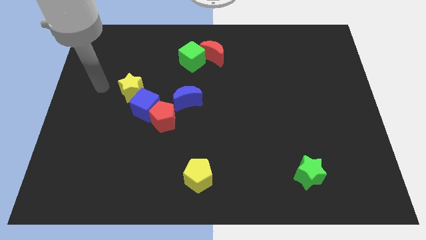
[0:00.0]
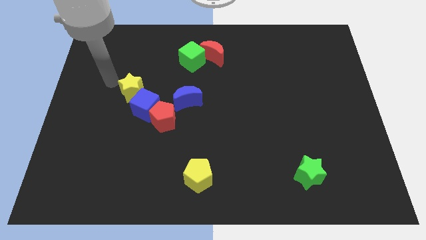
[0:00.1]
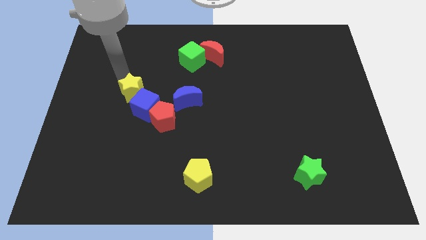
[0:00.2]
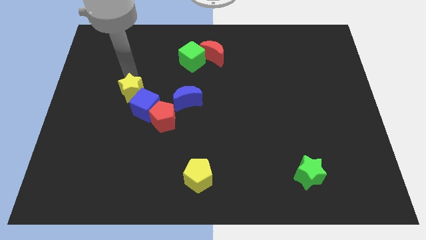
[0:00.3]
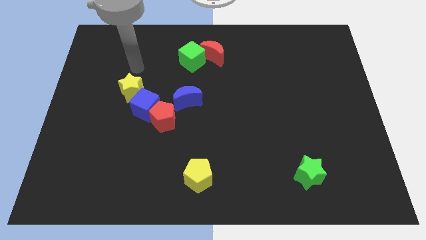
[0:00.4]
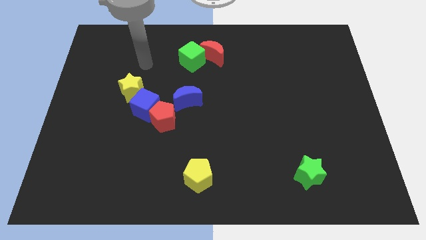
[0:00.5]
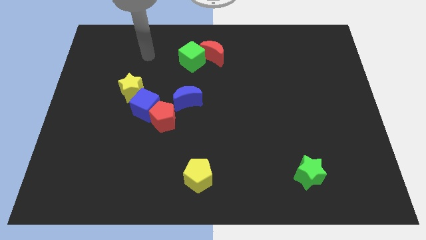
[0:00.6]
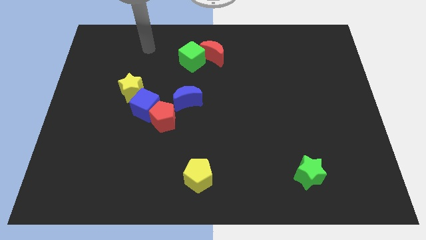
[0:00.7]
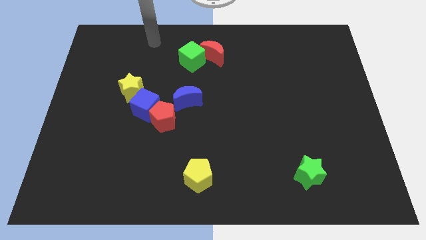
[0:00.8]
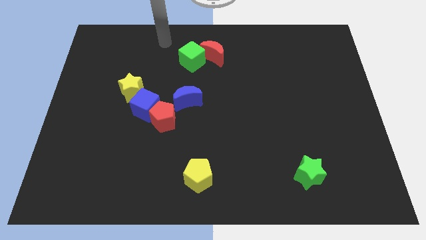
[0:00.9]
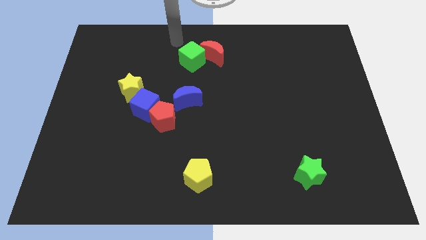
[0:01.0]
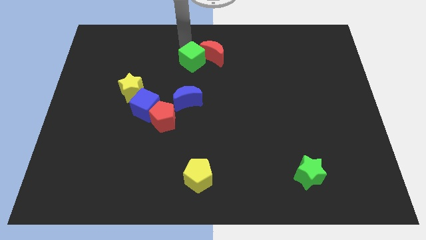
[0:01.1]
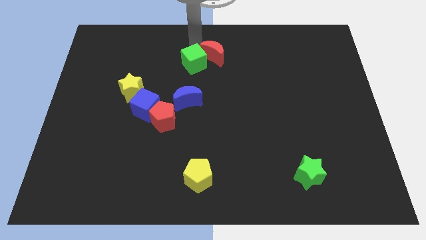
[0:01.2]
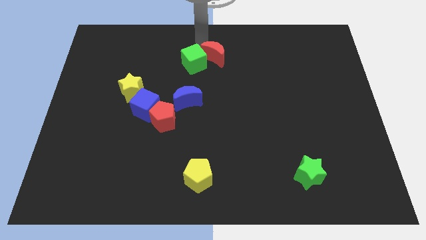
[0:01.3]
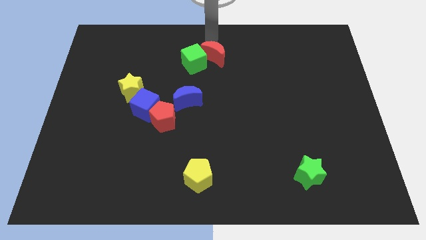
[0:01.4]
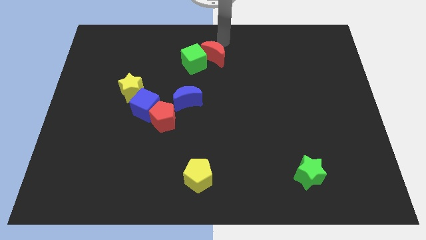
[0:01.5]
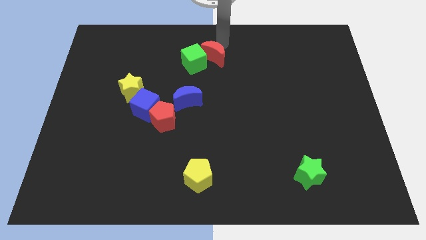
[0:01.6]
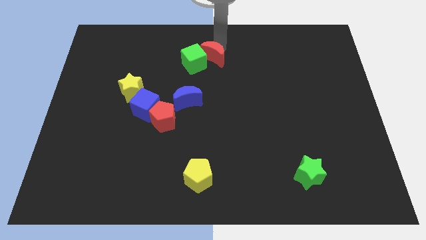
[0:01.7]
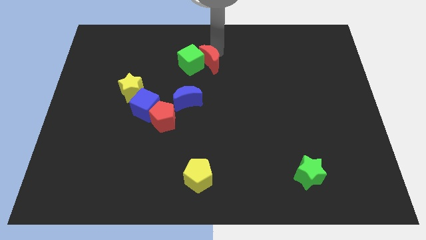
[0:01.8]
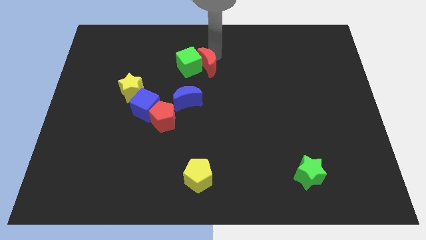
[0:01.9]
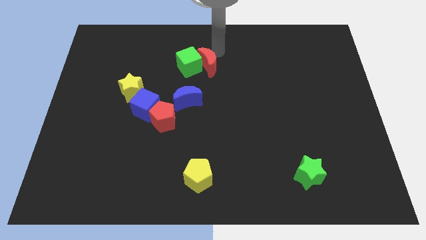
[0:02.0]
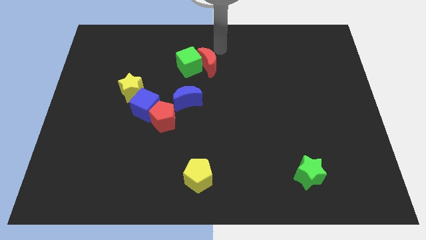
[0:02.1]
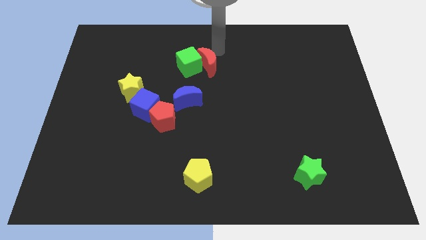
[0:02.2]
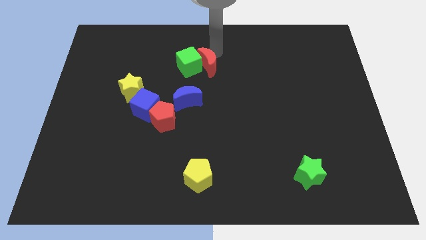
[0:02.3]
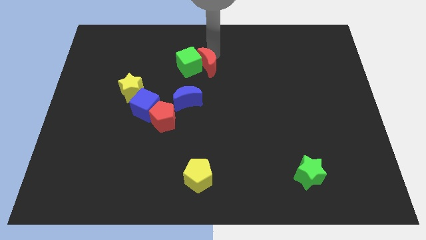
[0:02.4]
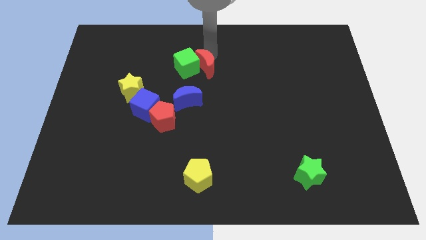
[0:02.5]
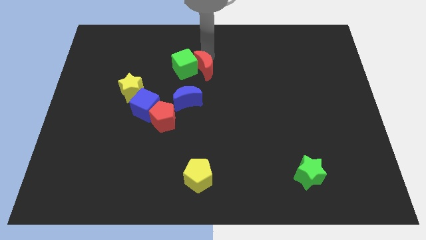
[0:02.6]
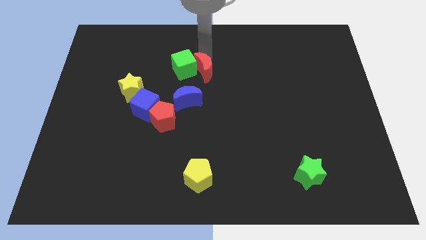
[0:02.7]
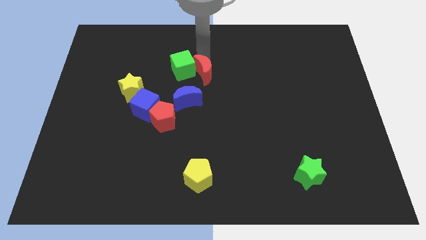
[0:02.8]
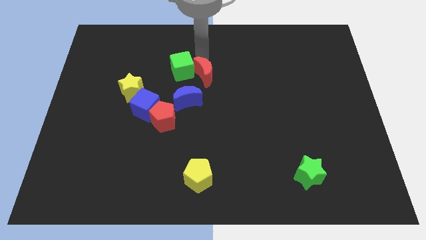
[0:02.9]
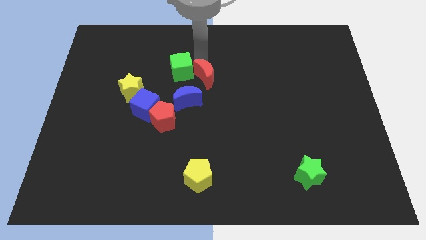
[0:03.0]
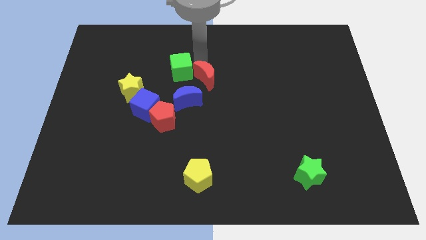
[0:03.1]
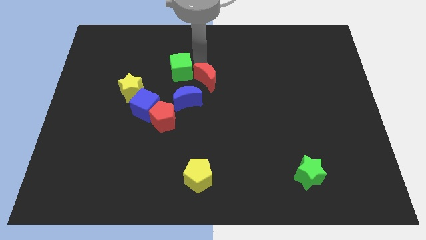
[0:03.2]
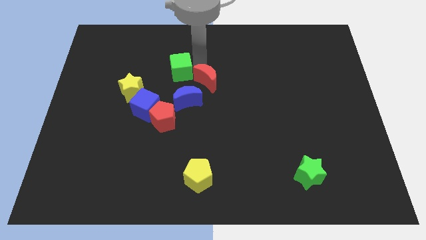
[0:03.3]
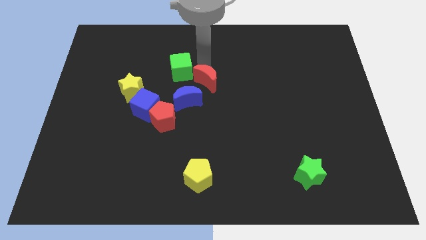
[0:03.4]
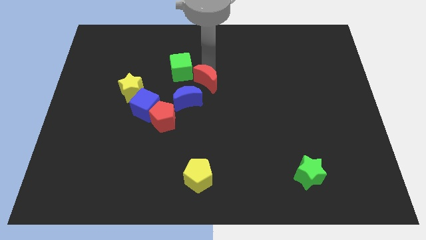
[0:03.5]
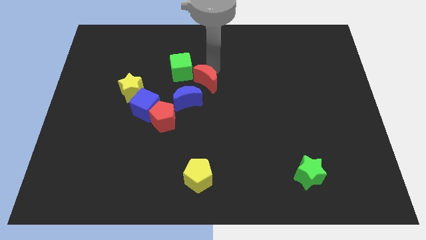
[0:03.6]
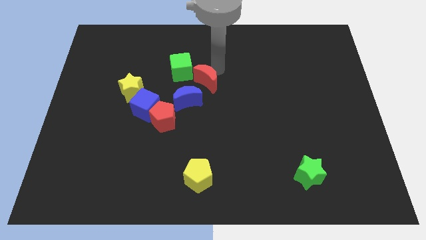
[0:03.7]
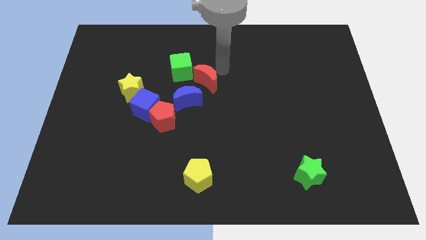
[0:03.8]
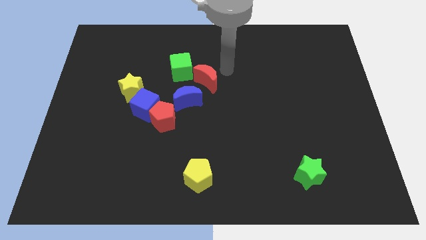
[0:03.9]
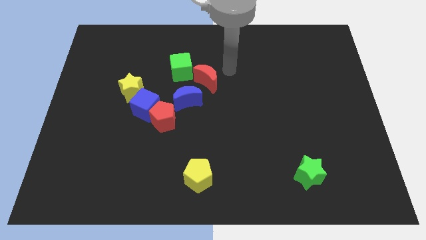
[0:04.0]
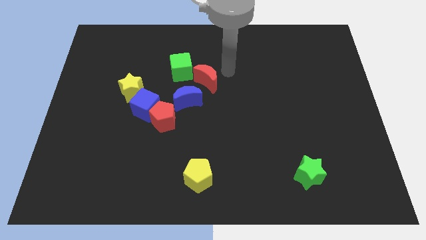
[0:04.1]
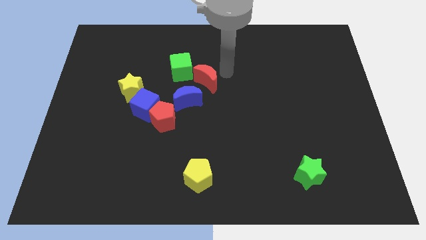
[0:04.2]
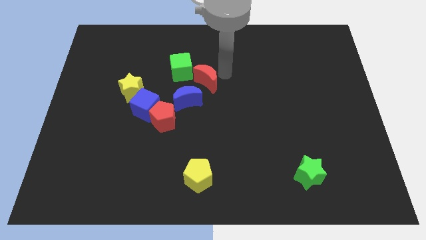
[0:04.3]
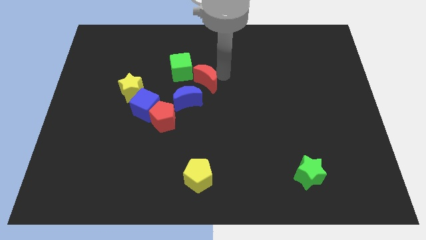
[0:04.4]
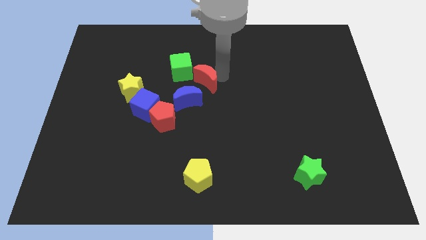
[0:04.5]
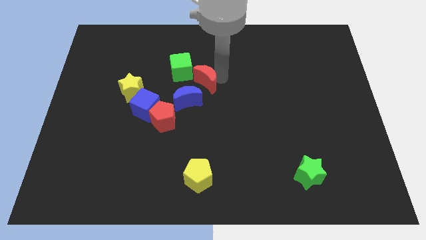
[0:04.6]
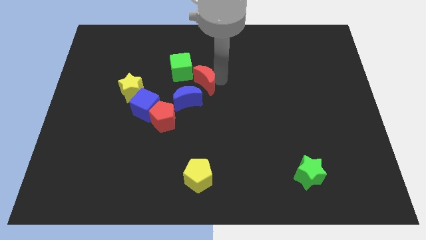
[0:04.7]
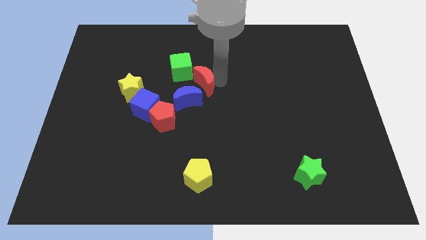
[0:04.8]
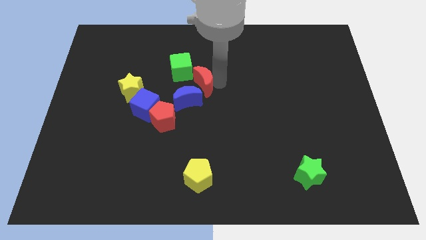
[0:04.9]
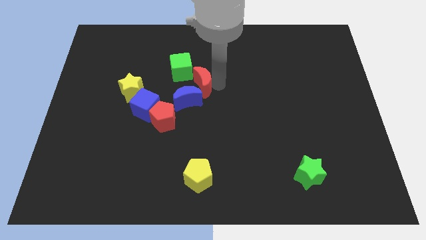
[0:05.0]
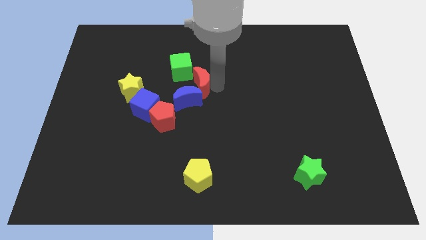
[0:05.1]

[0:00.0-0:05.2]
push the red moon to the blue moon

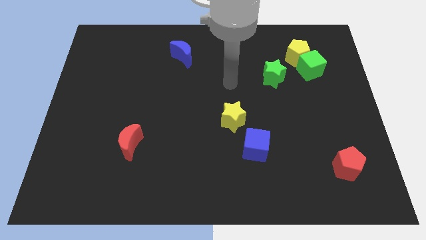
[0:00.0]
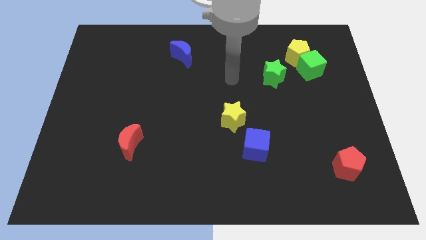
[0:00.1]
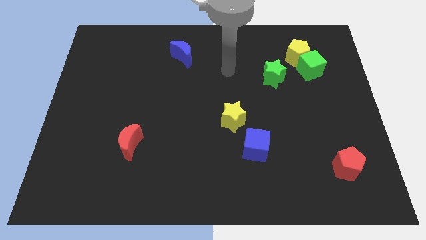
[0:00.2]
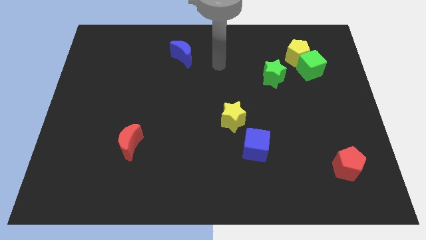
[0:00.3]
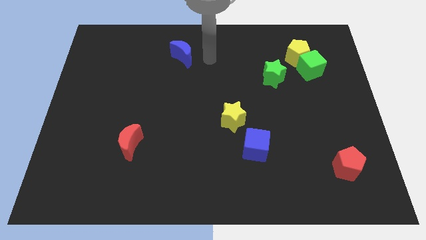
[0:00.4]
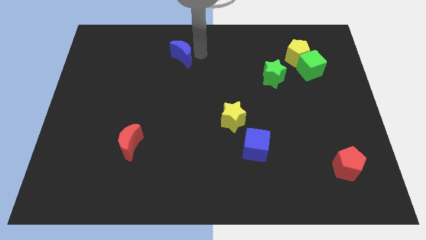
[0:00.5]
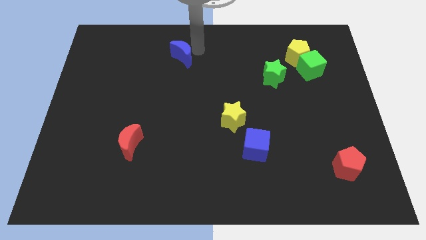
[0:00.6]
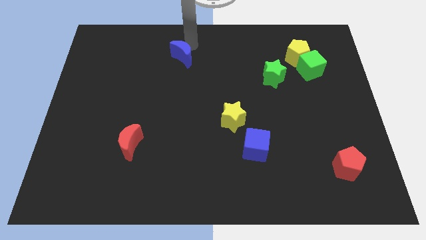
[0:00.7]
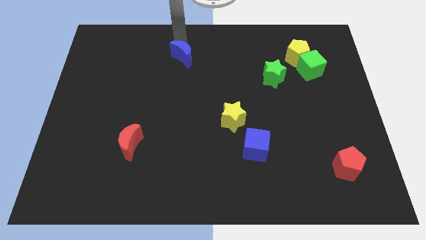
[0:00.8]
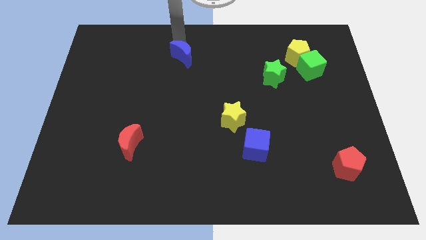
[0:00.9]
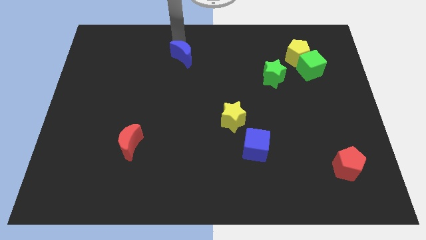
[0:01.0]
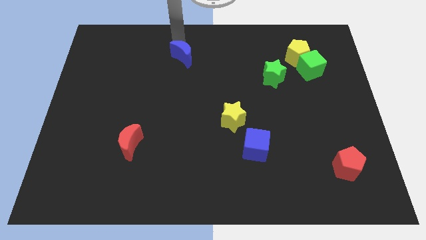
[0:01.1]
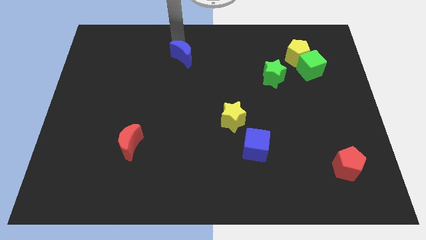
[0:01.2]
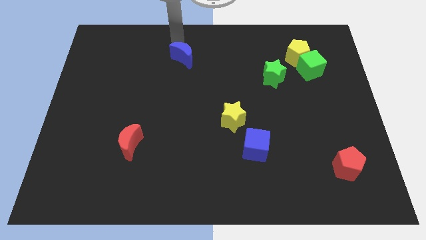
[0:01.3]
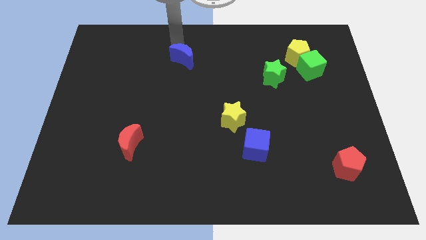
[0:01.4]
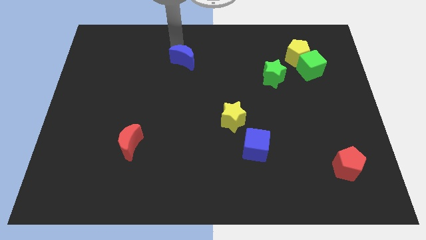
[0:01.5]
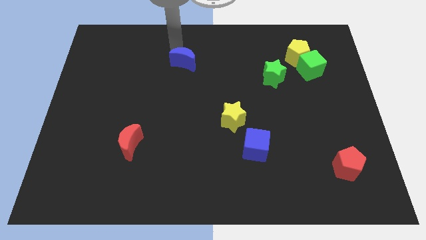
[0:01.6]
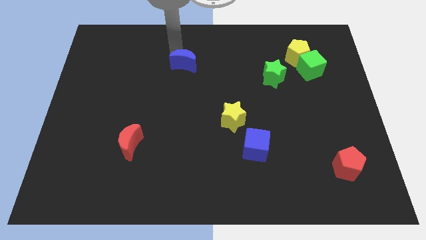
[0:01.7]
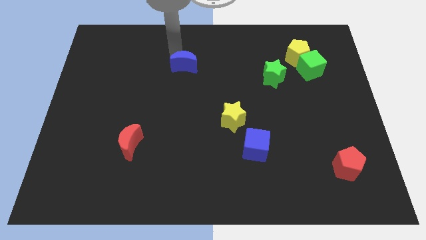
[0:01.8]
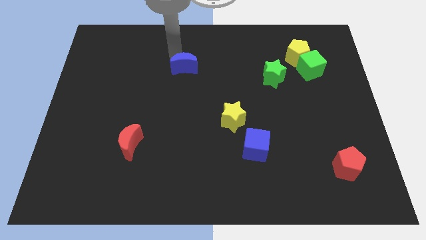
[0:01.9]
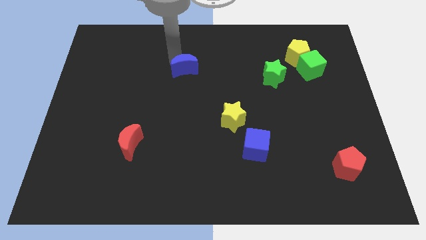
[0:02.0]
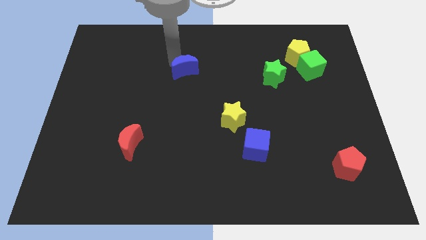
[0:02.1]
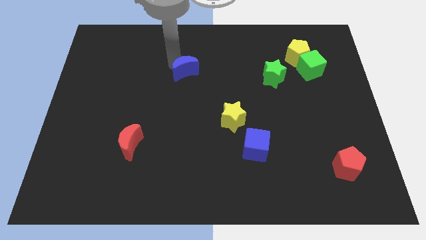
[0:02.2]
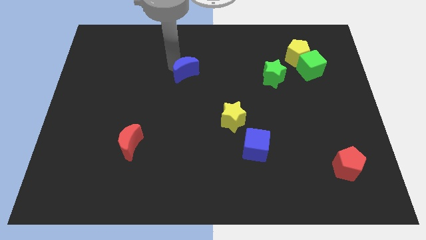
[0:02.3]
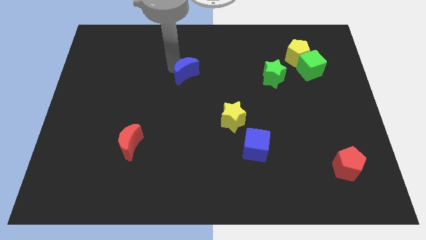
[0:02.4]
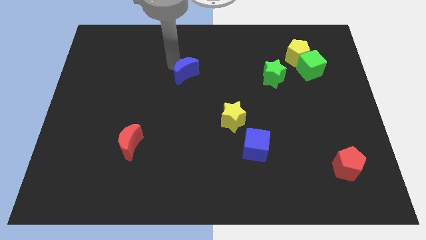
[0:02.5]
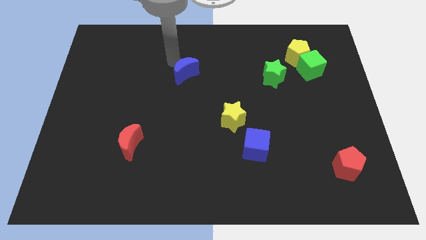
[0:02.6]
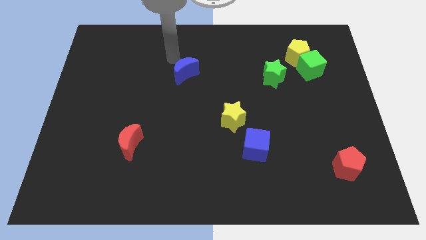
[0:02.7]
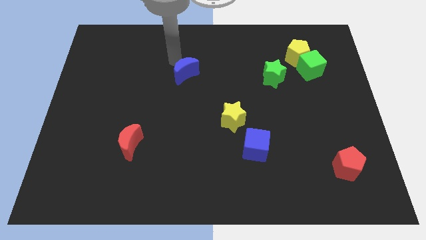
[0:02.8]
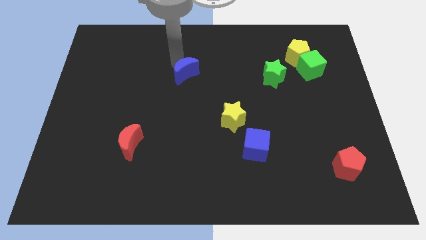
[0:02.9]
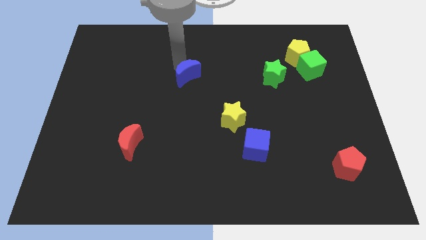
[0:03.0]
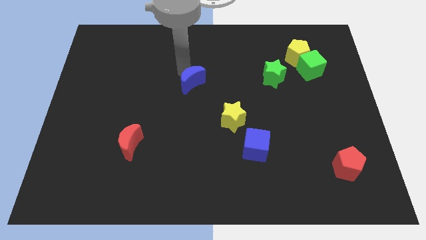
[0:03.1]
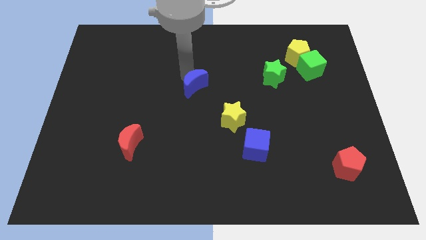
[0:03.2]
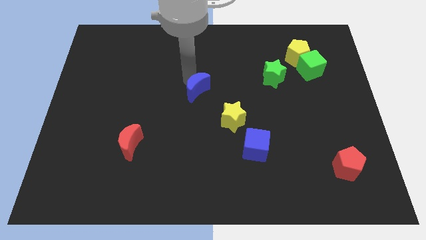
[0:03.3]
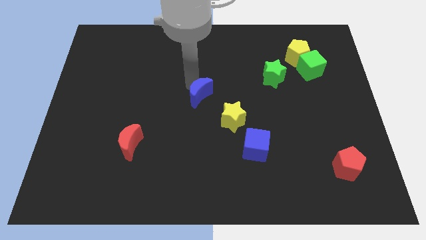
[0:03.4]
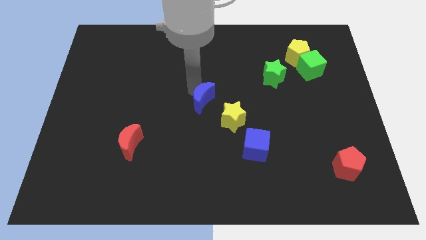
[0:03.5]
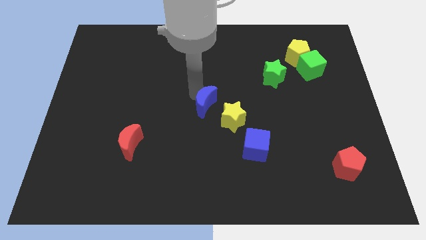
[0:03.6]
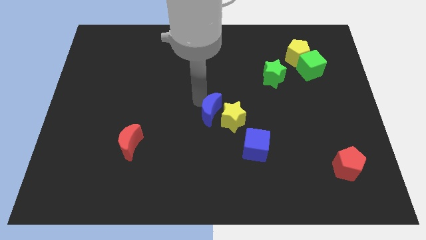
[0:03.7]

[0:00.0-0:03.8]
push the blue moon to the yellow star
